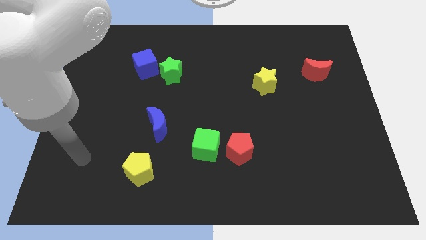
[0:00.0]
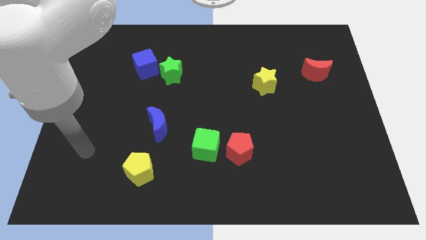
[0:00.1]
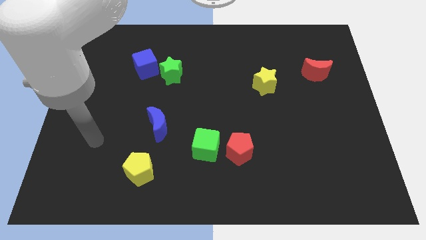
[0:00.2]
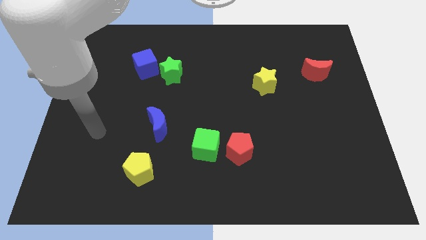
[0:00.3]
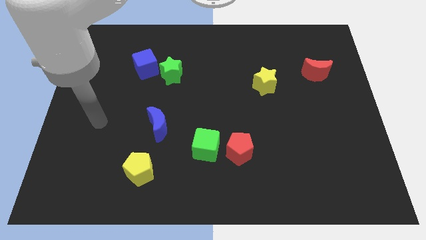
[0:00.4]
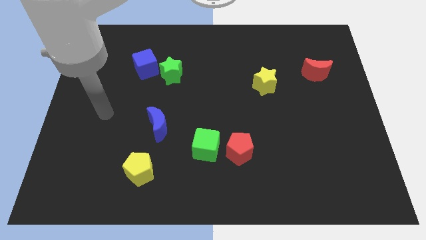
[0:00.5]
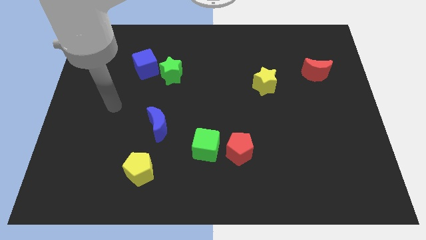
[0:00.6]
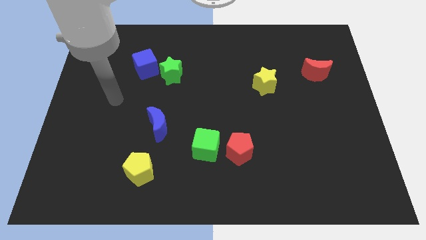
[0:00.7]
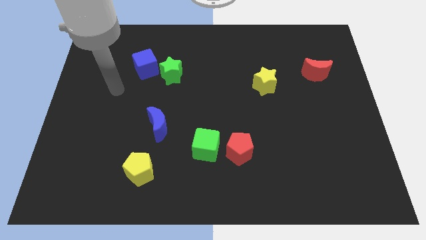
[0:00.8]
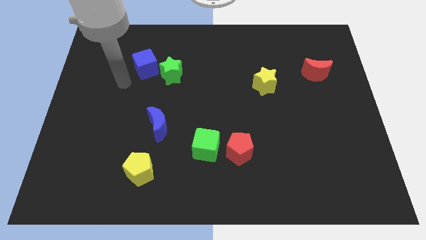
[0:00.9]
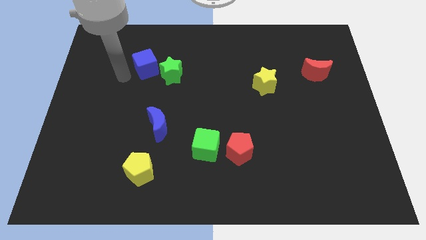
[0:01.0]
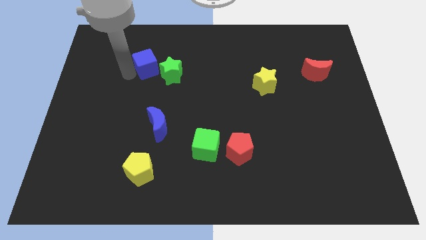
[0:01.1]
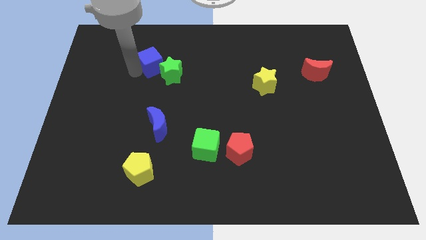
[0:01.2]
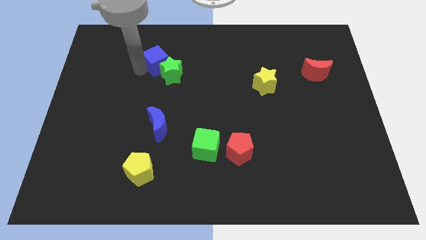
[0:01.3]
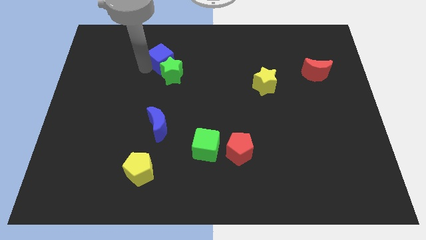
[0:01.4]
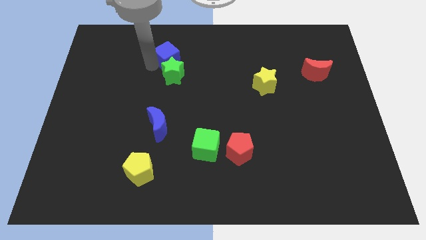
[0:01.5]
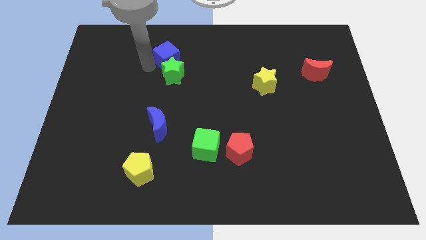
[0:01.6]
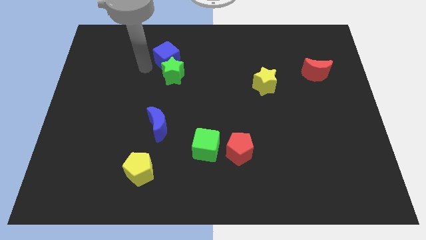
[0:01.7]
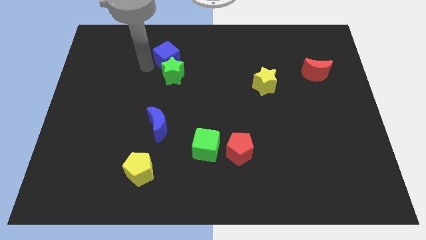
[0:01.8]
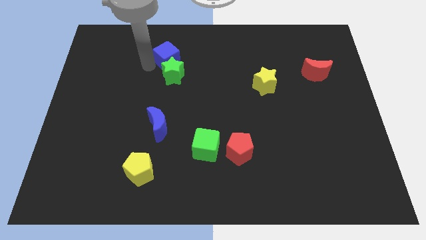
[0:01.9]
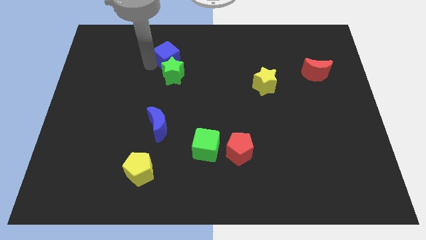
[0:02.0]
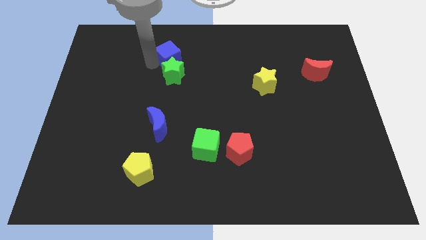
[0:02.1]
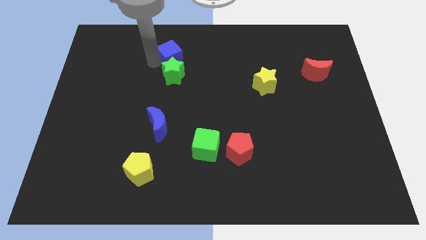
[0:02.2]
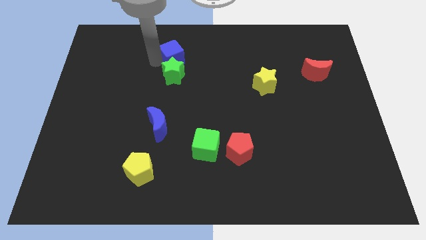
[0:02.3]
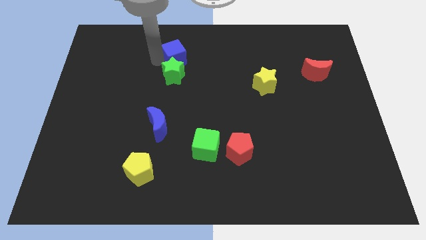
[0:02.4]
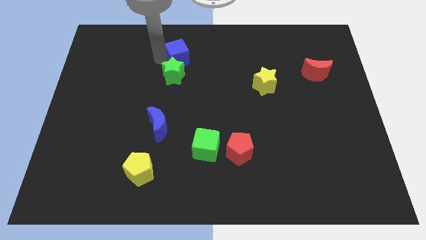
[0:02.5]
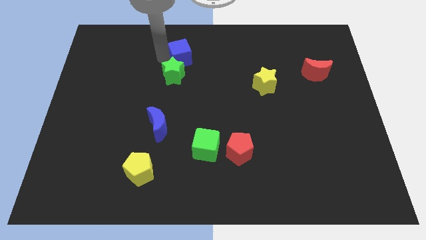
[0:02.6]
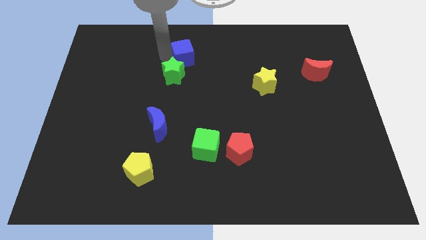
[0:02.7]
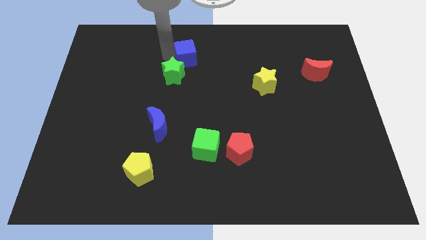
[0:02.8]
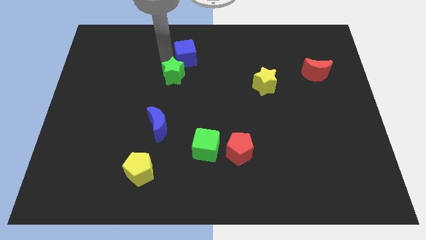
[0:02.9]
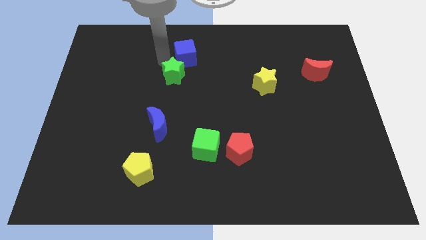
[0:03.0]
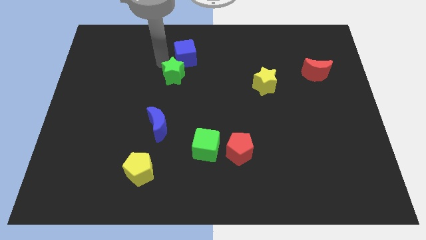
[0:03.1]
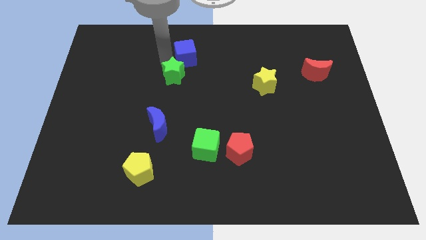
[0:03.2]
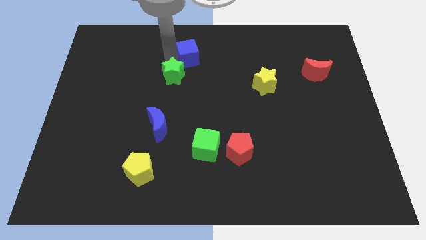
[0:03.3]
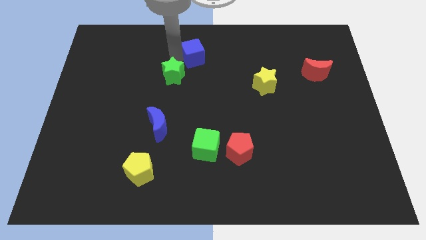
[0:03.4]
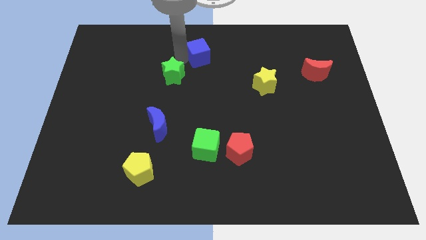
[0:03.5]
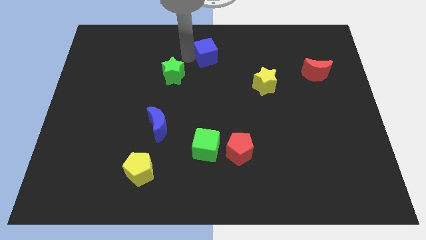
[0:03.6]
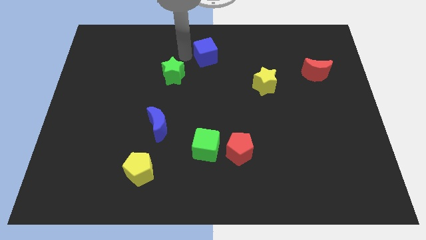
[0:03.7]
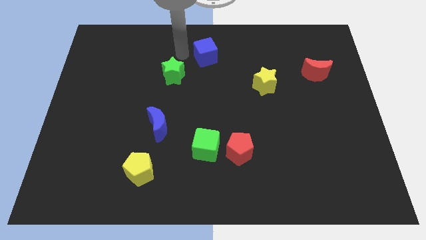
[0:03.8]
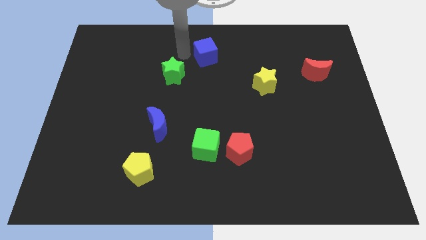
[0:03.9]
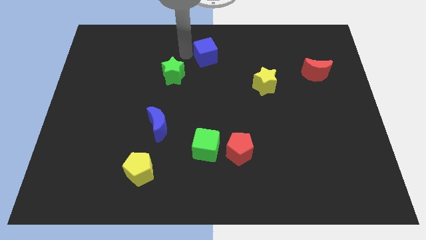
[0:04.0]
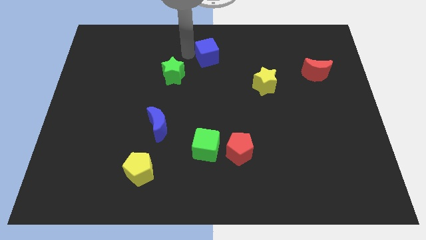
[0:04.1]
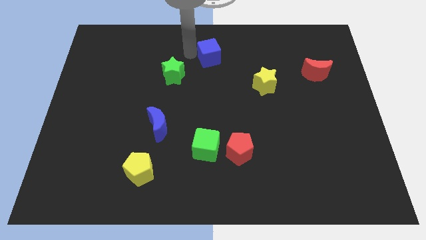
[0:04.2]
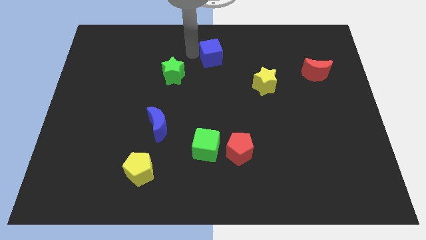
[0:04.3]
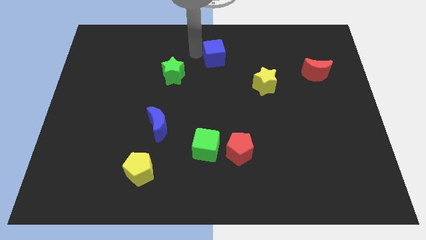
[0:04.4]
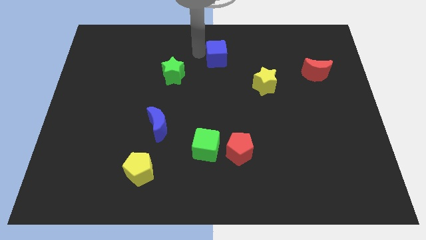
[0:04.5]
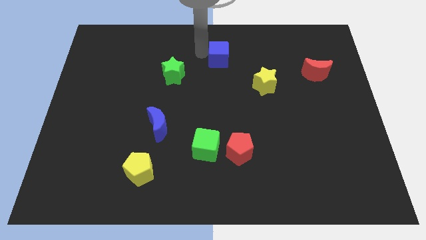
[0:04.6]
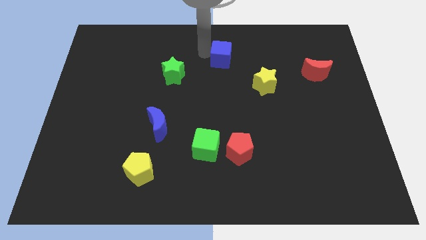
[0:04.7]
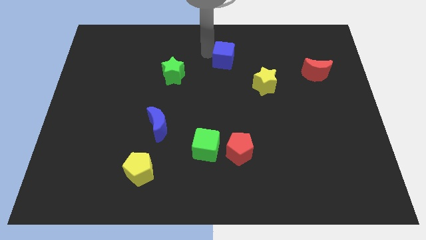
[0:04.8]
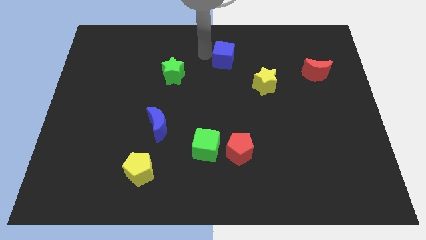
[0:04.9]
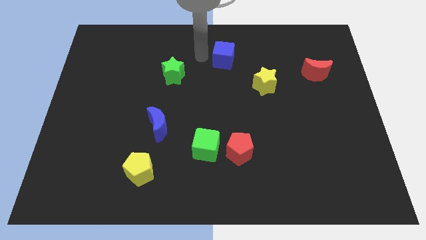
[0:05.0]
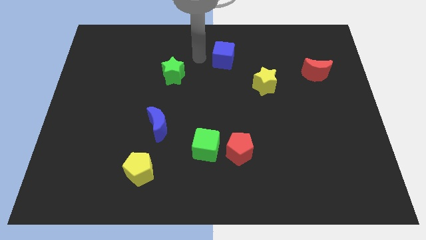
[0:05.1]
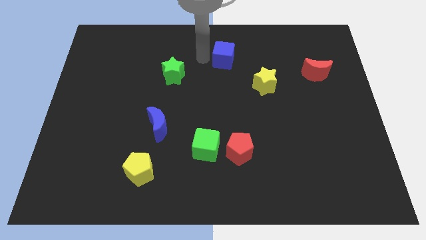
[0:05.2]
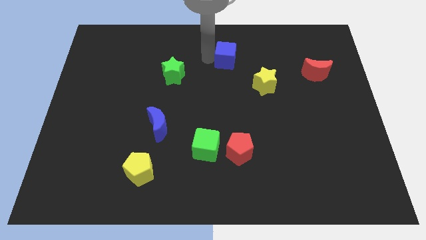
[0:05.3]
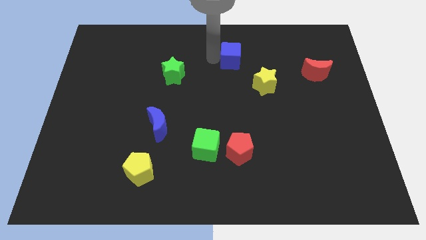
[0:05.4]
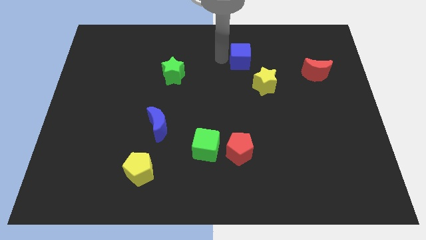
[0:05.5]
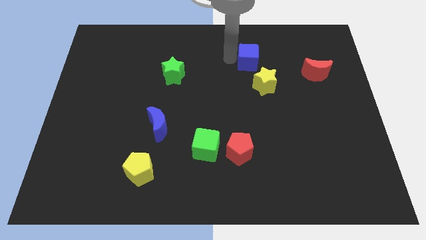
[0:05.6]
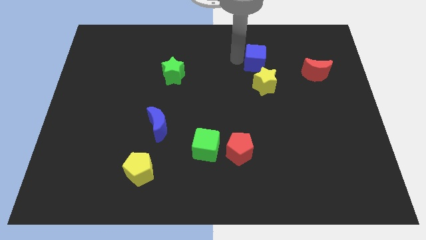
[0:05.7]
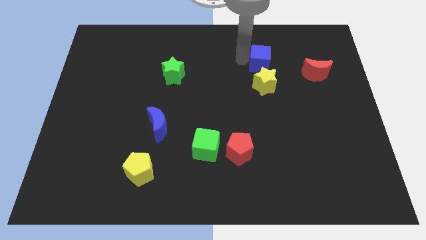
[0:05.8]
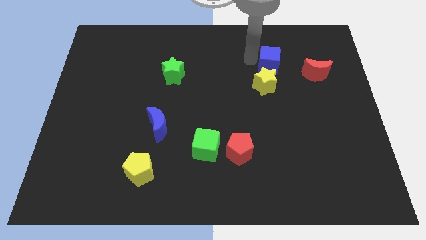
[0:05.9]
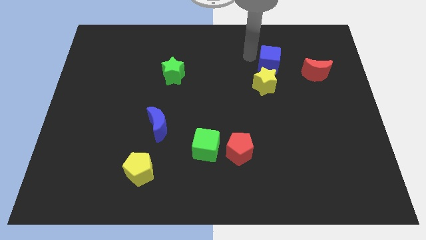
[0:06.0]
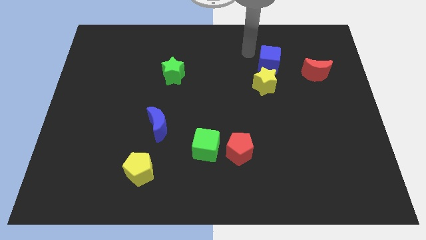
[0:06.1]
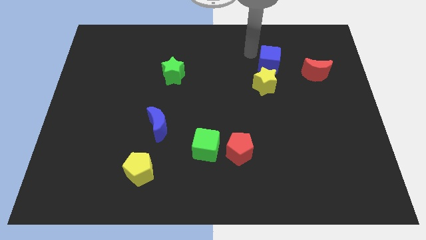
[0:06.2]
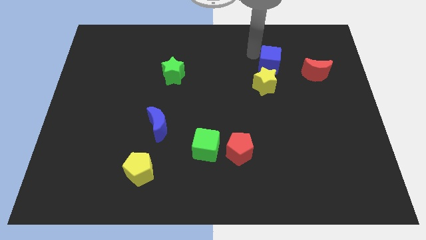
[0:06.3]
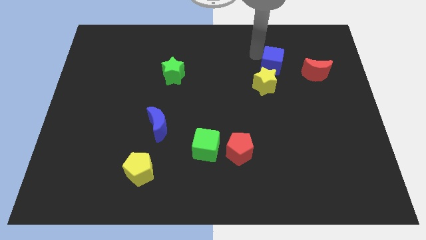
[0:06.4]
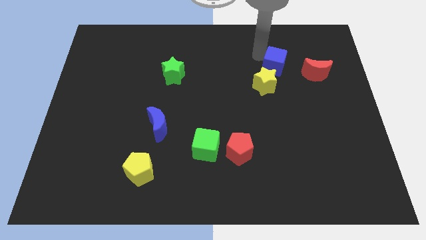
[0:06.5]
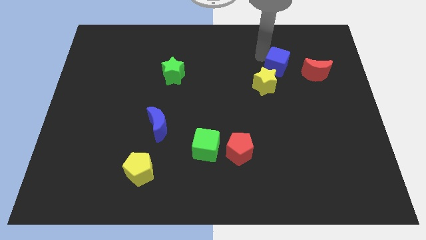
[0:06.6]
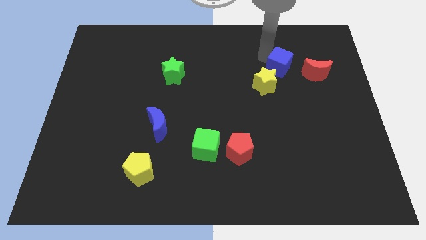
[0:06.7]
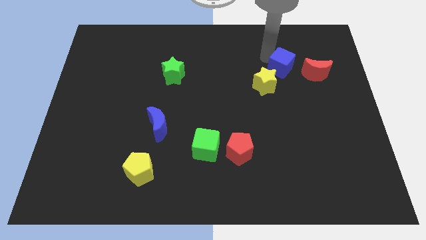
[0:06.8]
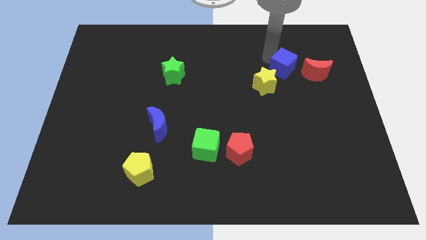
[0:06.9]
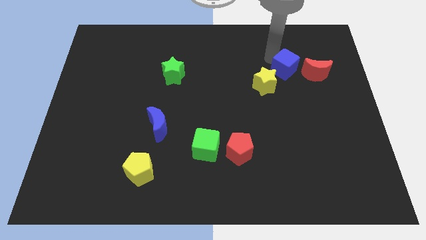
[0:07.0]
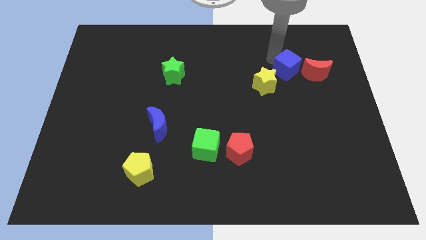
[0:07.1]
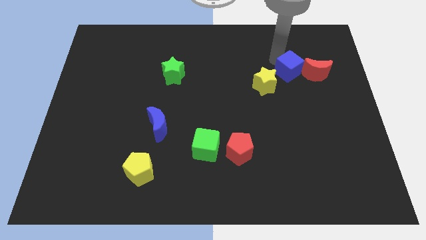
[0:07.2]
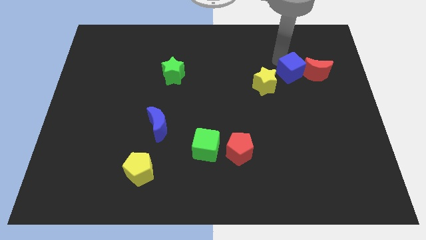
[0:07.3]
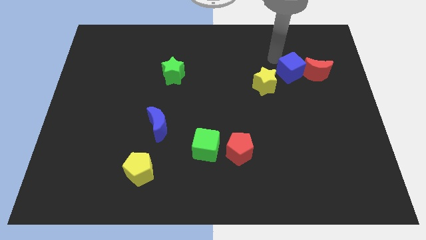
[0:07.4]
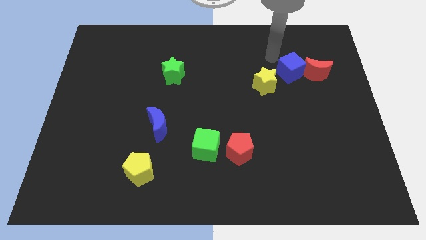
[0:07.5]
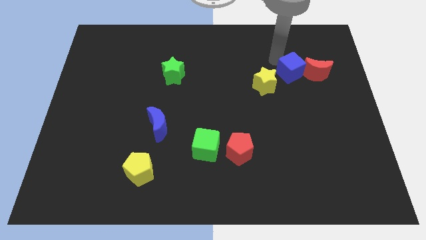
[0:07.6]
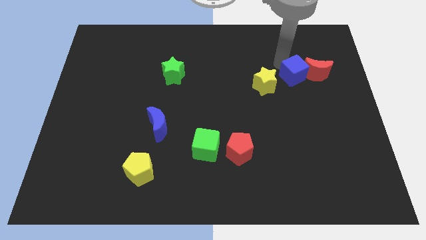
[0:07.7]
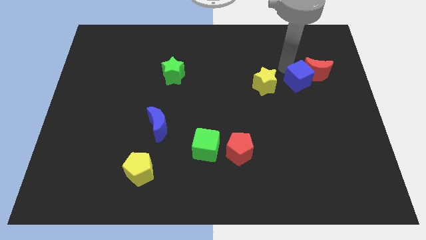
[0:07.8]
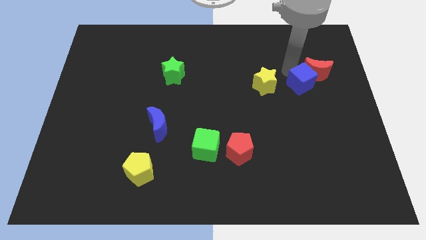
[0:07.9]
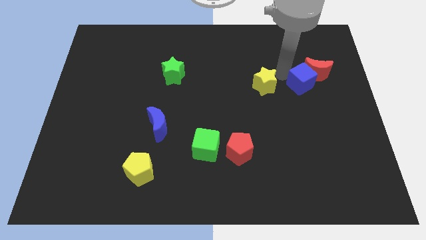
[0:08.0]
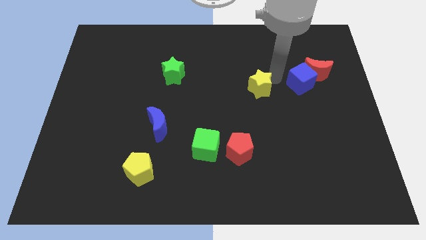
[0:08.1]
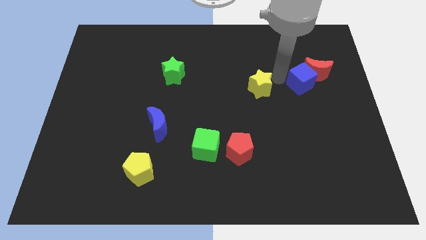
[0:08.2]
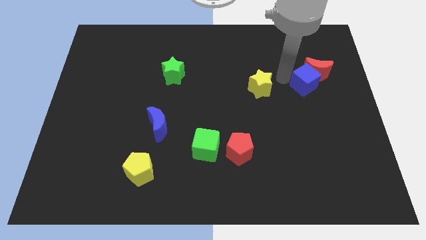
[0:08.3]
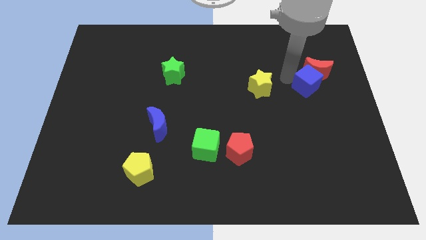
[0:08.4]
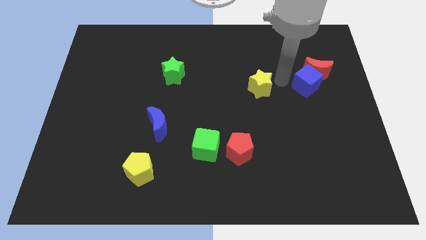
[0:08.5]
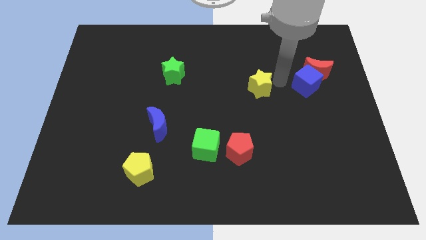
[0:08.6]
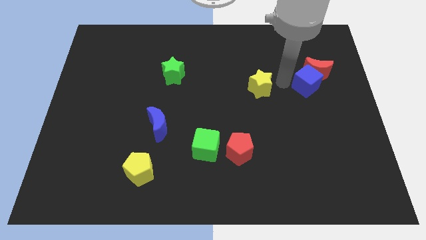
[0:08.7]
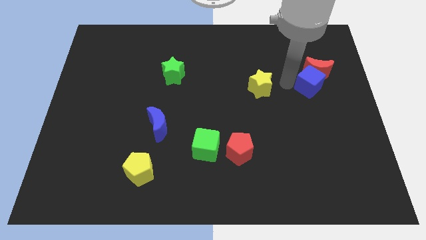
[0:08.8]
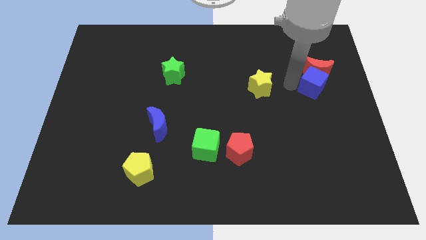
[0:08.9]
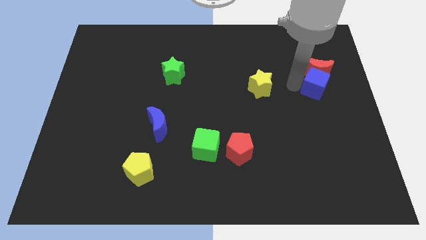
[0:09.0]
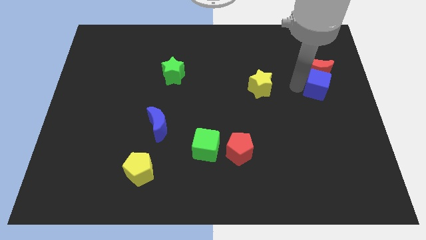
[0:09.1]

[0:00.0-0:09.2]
move the blue cube to the center right
